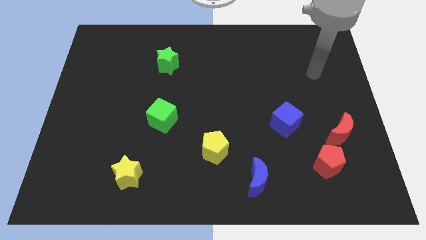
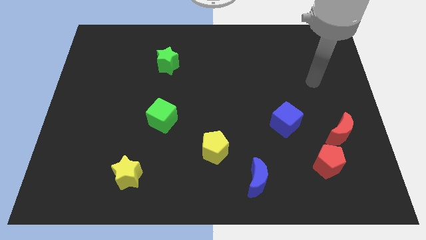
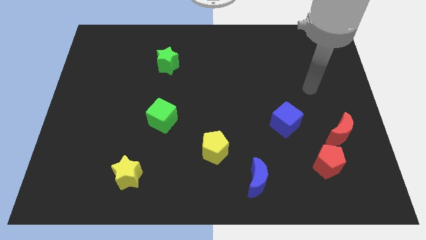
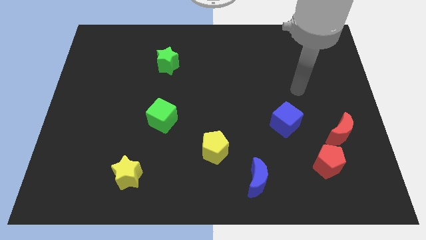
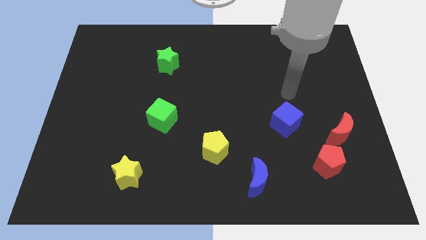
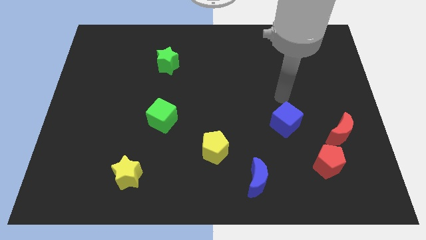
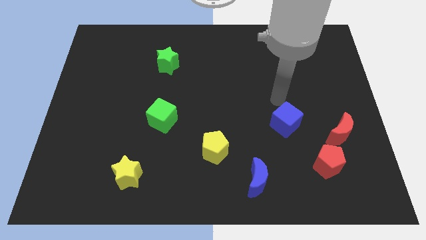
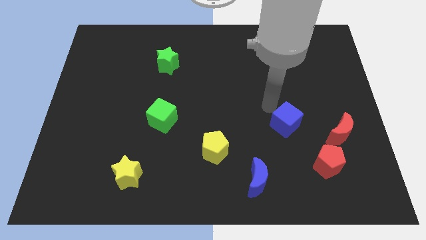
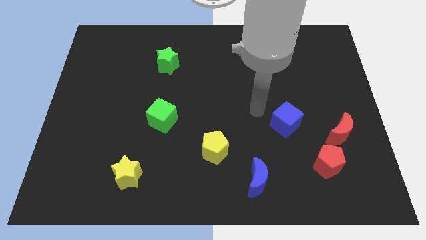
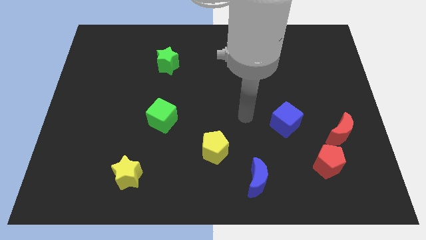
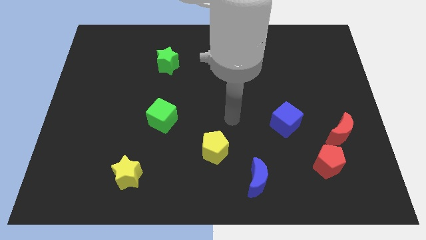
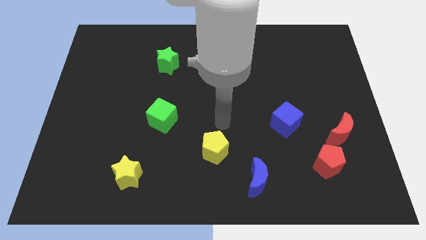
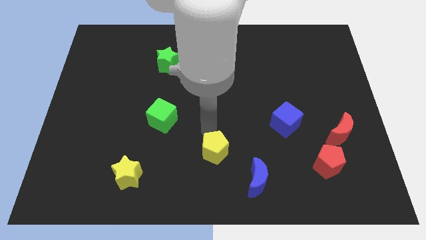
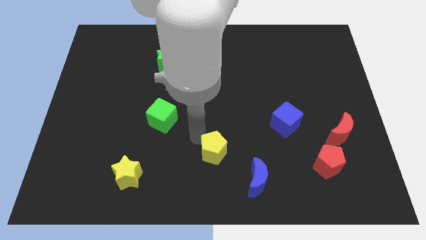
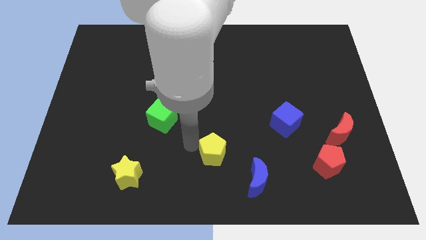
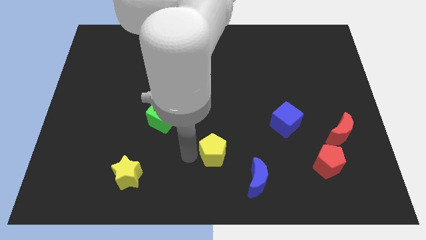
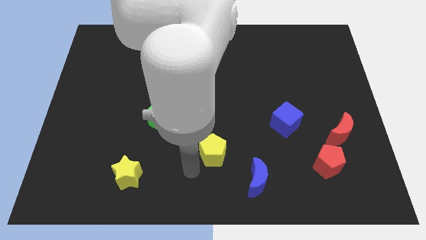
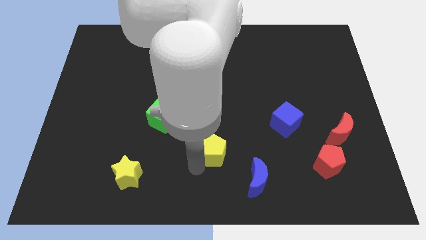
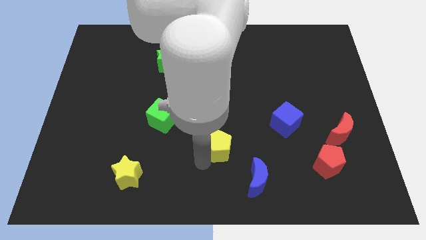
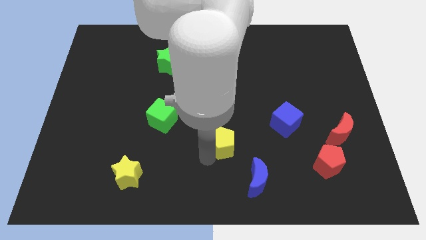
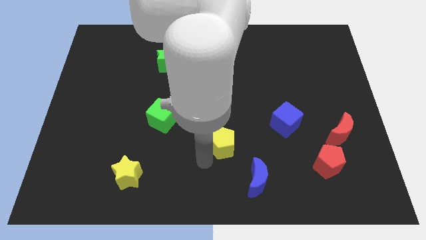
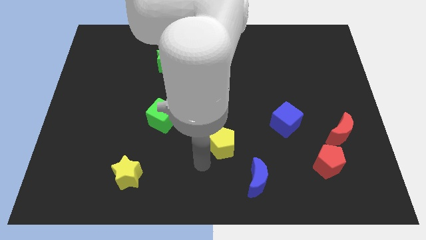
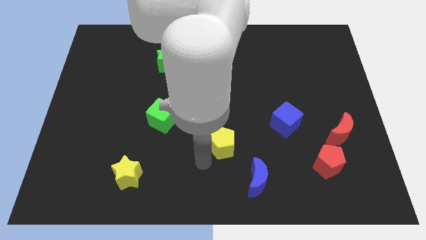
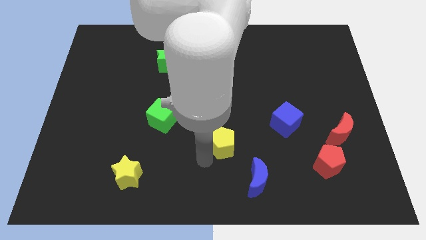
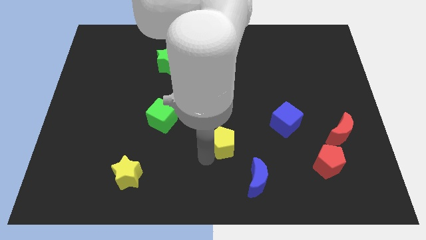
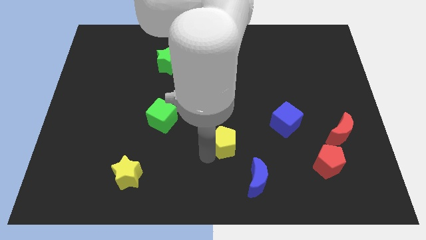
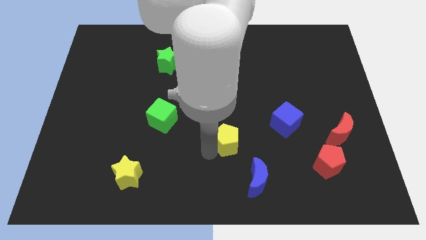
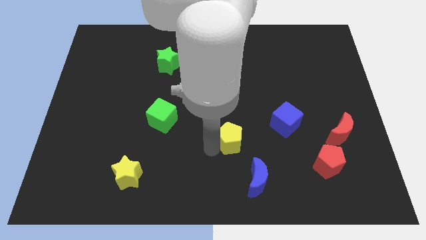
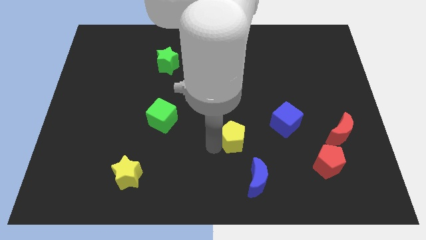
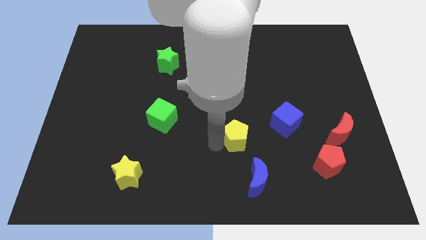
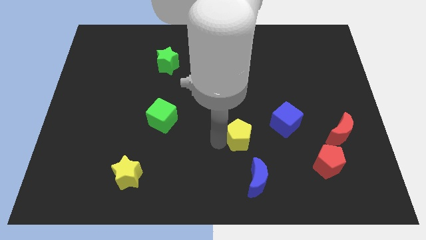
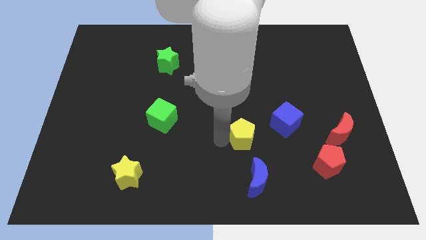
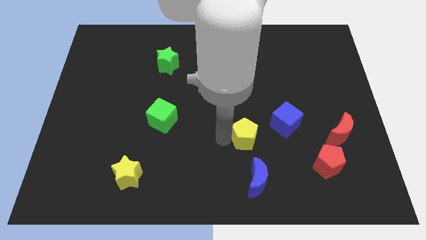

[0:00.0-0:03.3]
slide the yellow pentagon upwards and to the right slightly

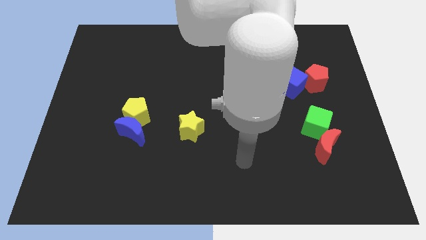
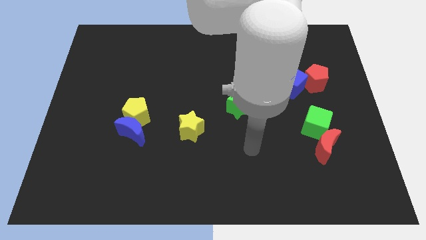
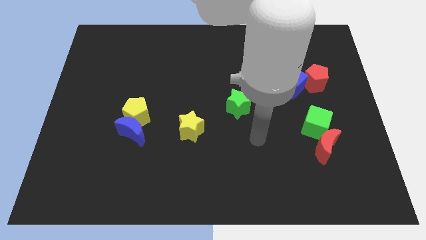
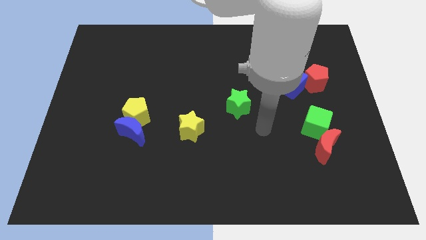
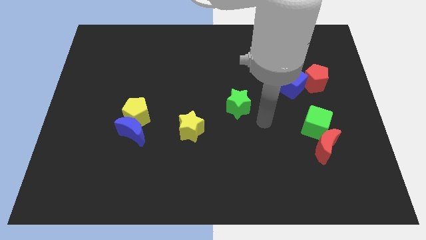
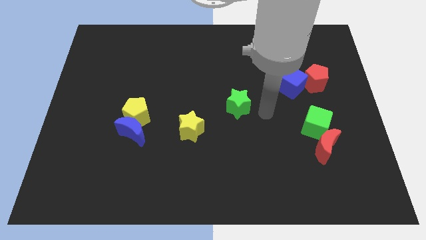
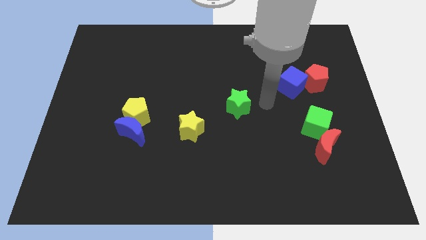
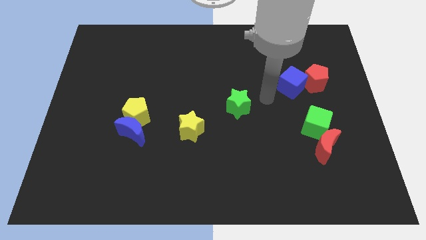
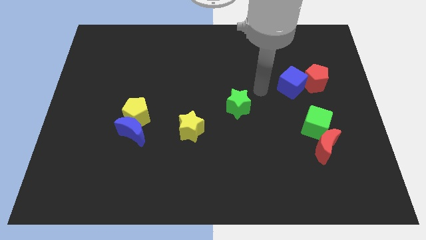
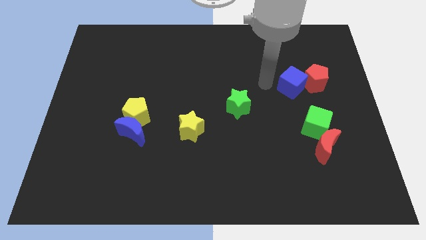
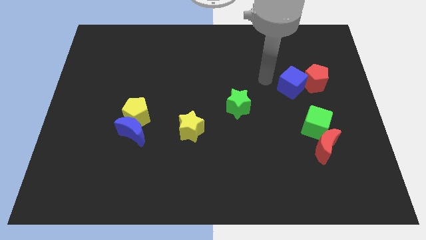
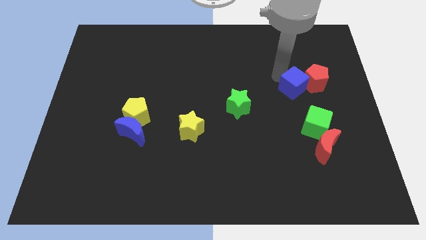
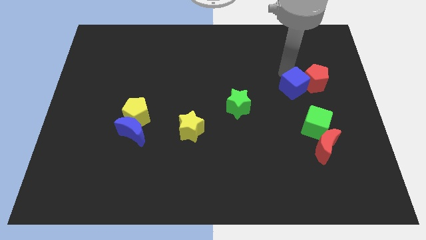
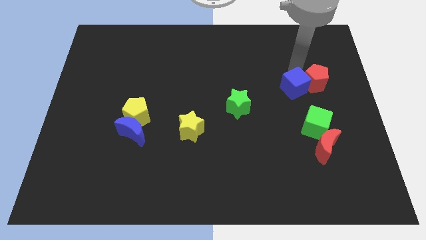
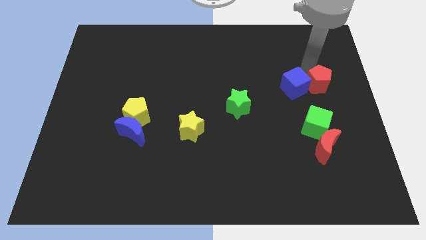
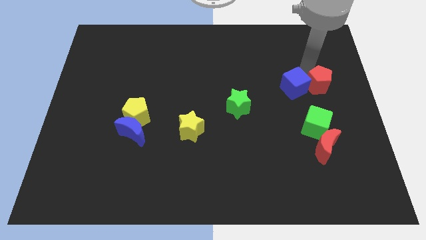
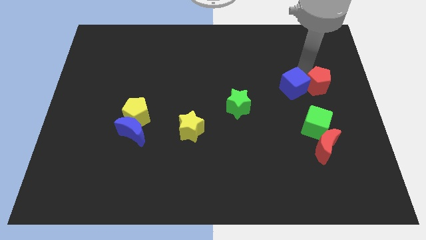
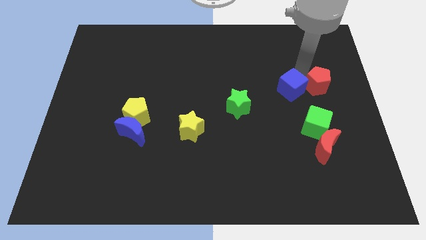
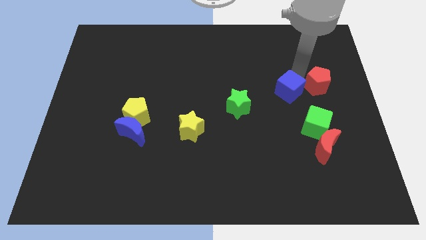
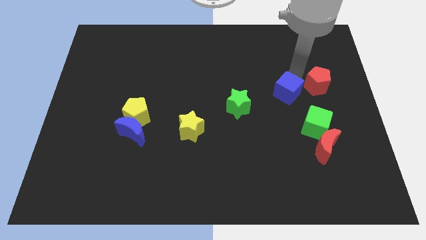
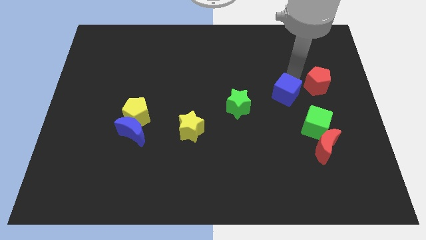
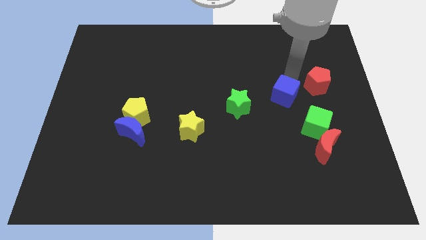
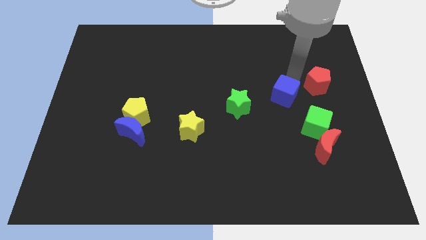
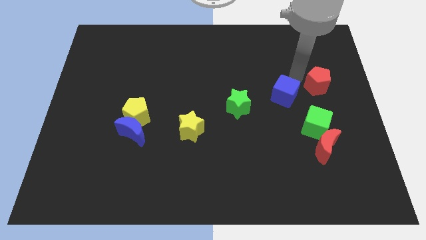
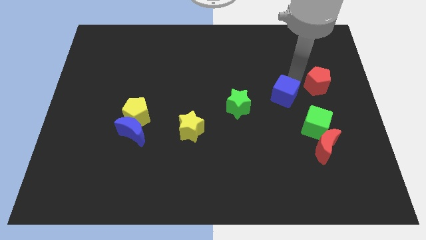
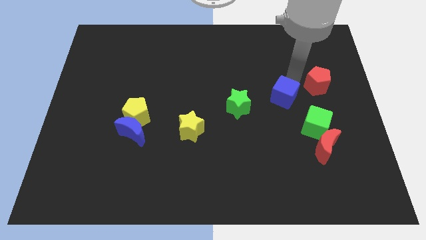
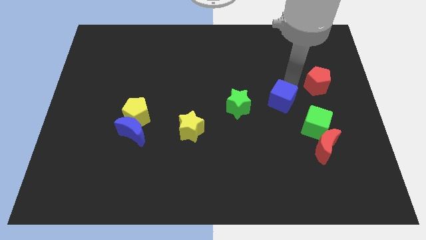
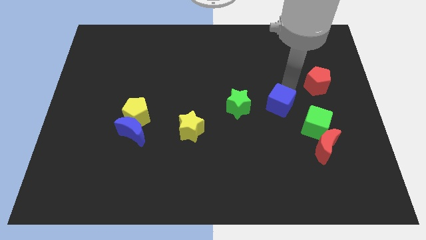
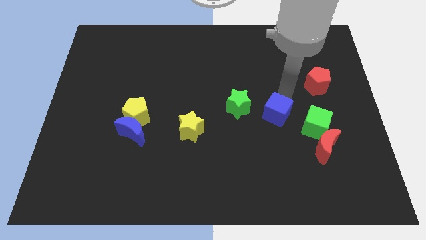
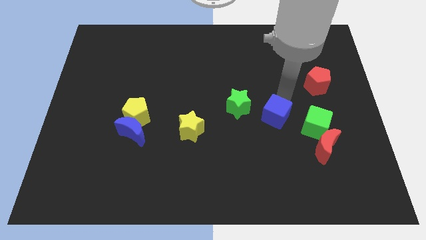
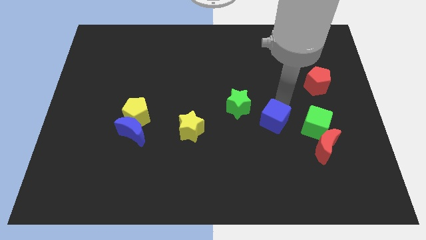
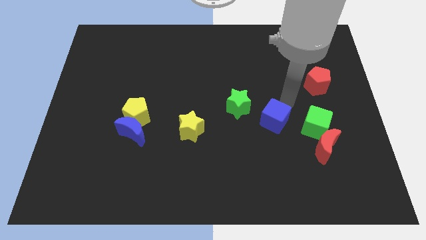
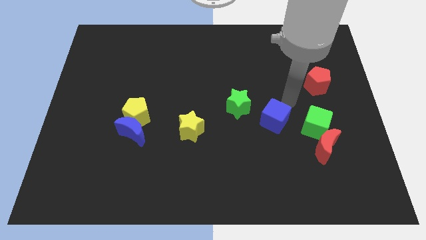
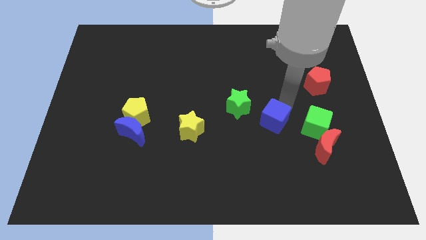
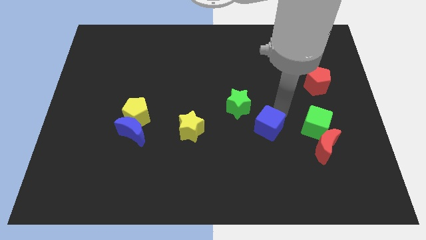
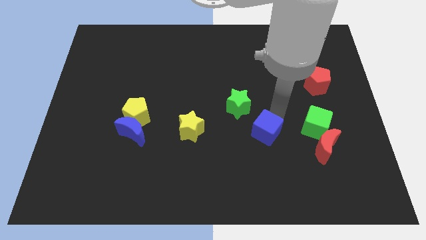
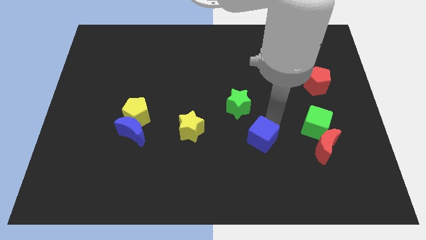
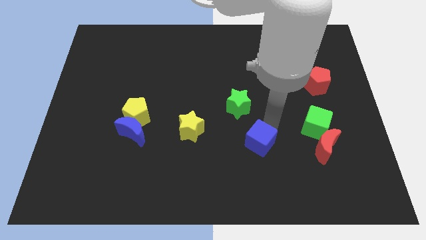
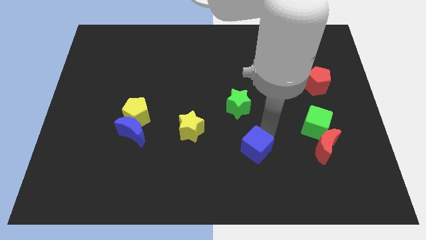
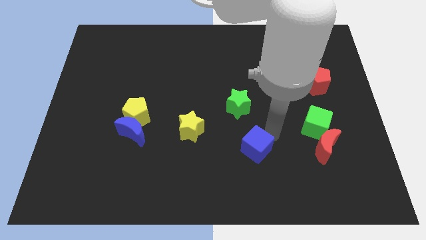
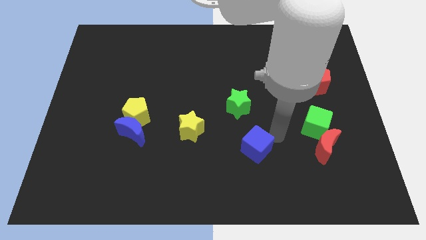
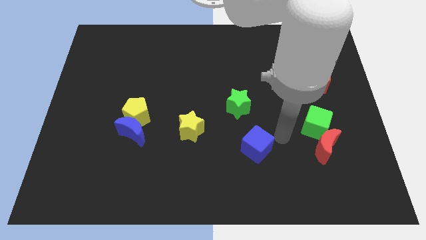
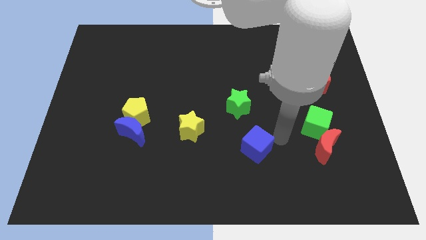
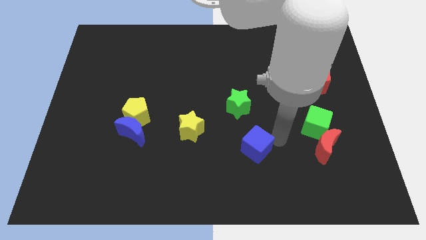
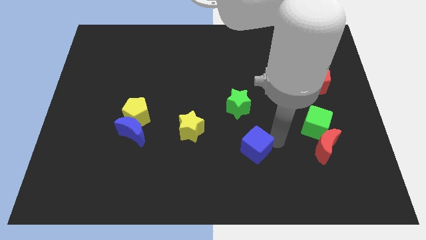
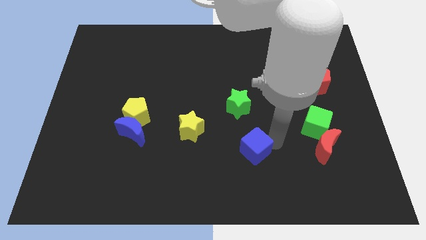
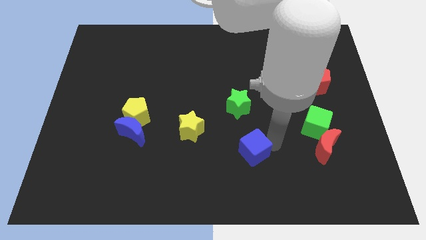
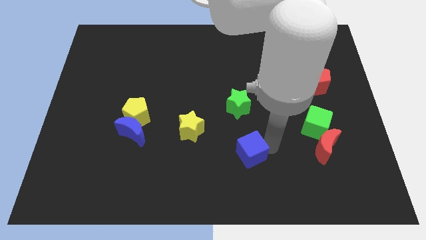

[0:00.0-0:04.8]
move the blue cube downwards and to the left diagonally
